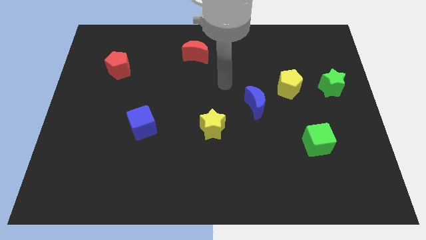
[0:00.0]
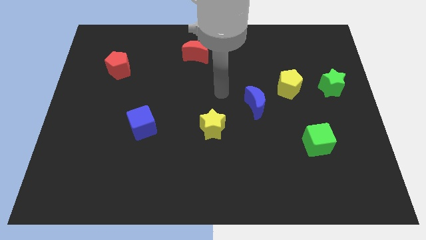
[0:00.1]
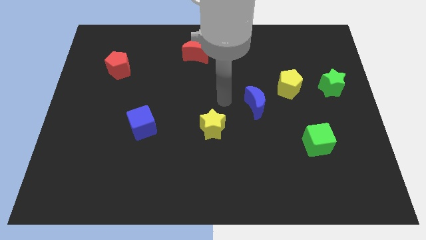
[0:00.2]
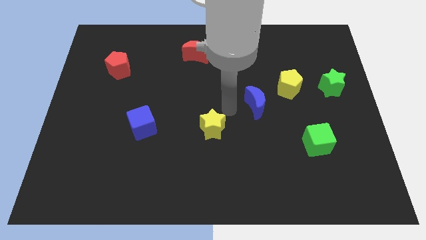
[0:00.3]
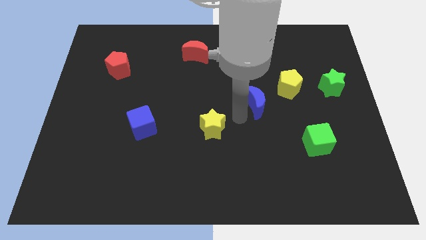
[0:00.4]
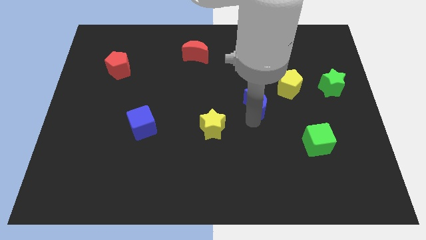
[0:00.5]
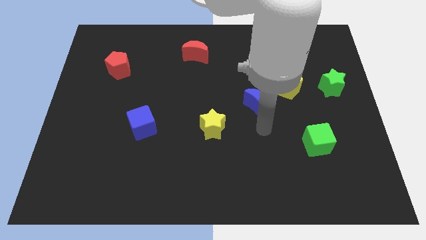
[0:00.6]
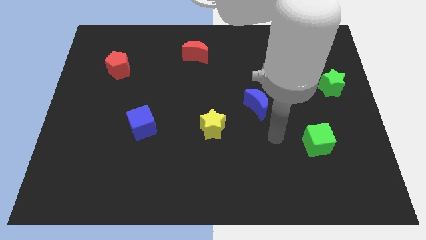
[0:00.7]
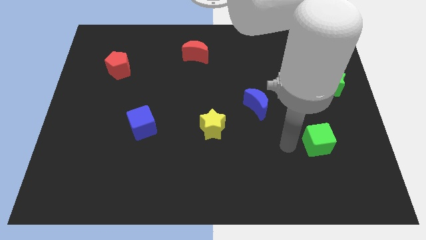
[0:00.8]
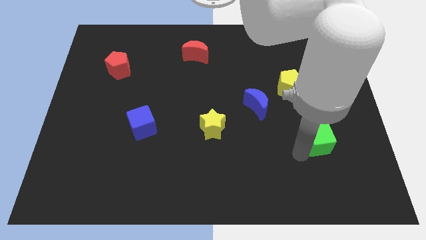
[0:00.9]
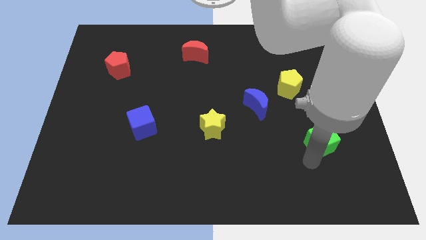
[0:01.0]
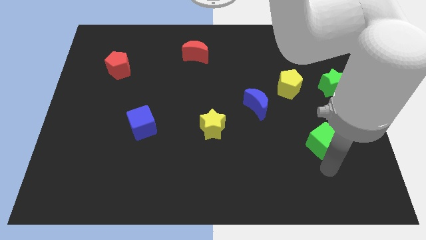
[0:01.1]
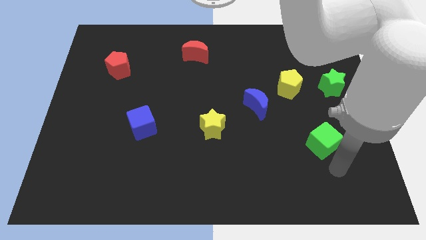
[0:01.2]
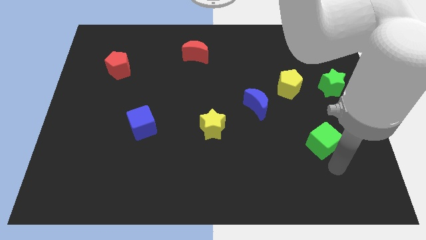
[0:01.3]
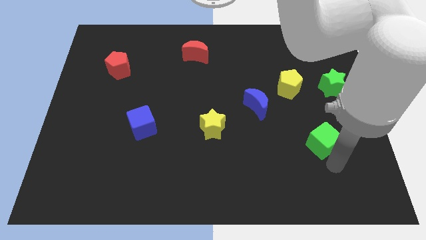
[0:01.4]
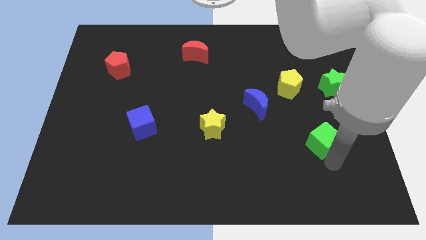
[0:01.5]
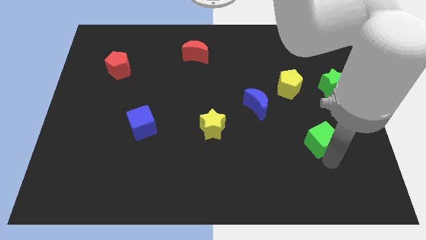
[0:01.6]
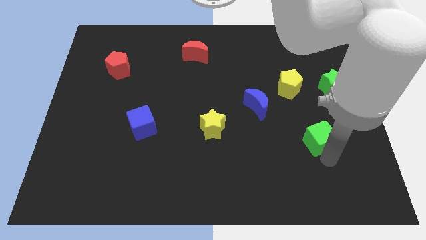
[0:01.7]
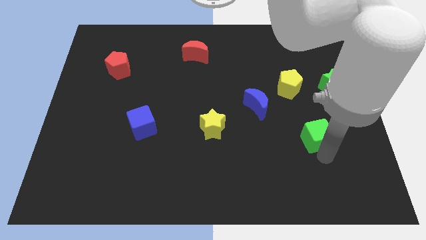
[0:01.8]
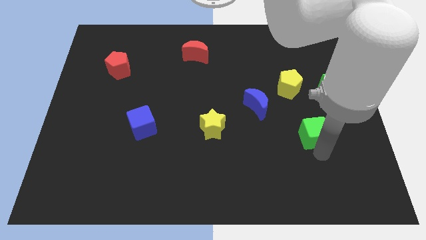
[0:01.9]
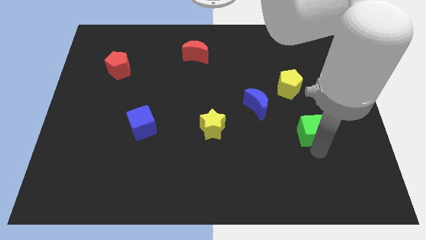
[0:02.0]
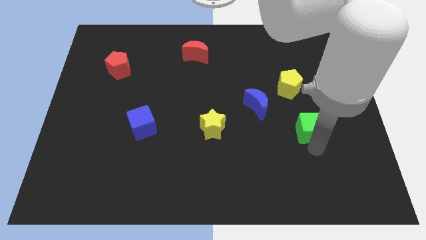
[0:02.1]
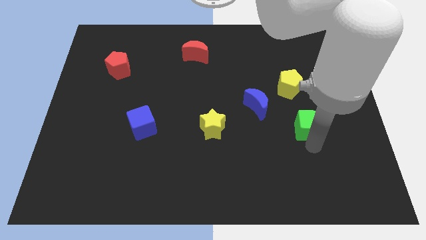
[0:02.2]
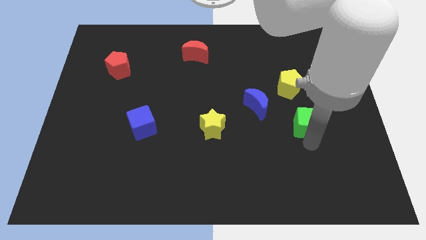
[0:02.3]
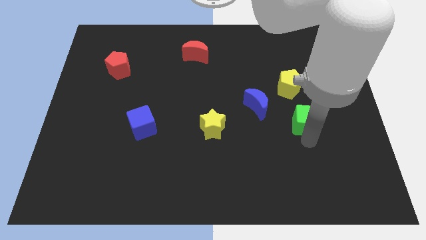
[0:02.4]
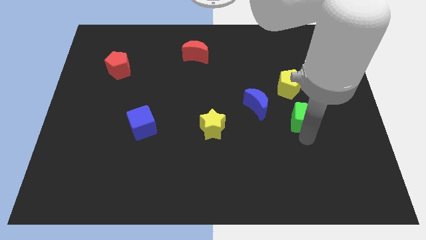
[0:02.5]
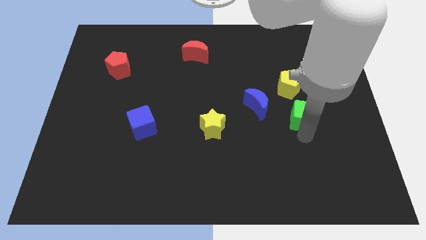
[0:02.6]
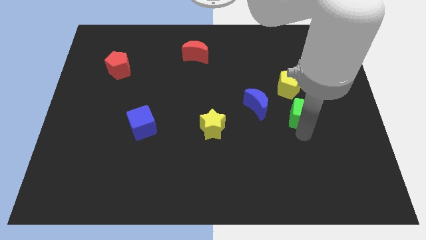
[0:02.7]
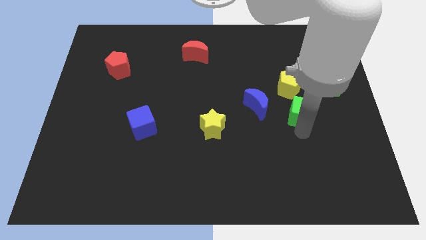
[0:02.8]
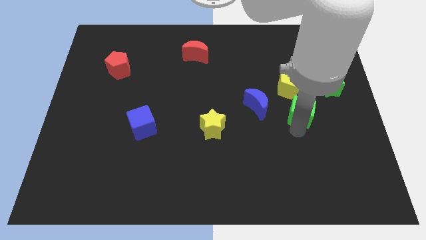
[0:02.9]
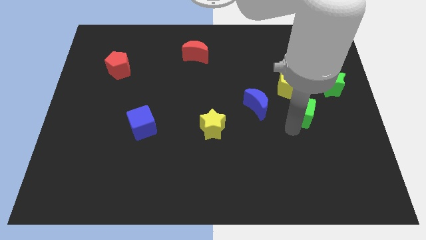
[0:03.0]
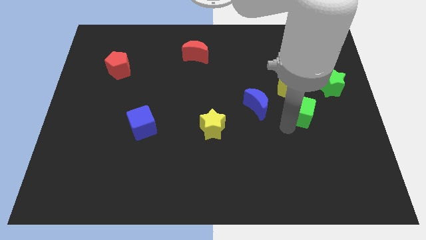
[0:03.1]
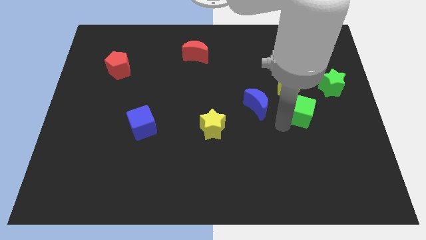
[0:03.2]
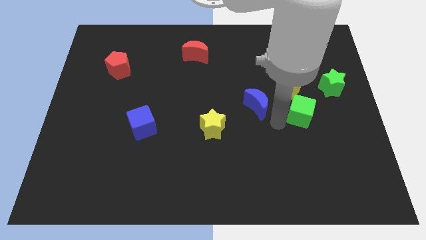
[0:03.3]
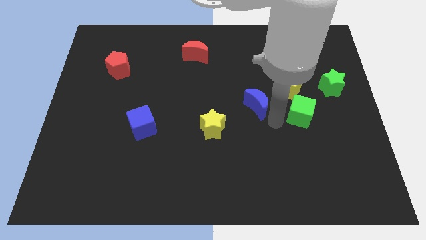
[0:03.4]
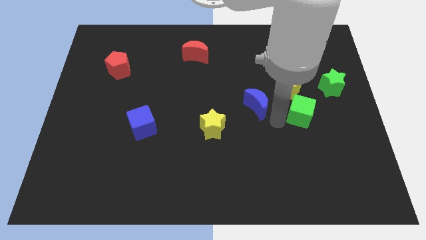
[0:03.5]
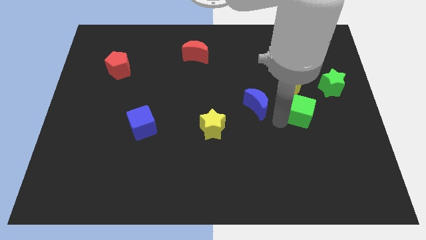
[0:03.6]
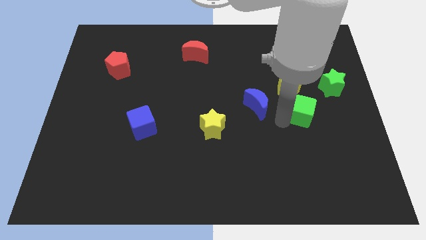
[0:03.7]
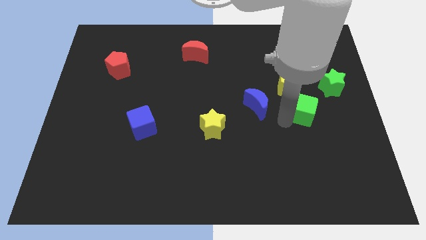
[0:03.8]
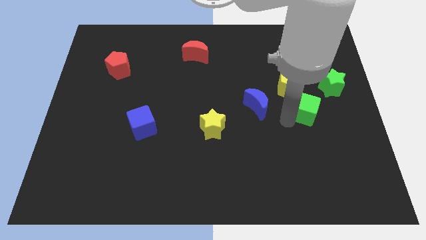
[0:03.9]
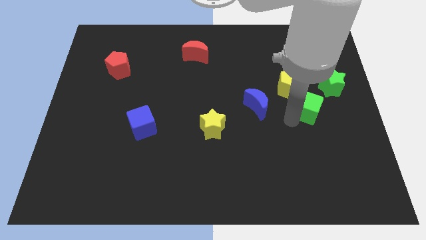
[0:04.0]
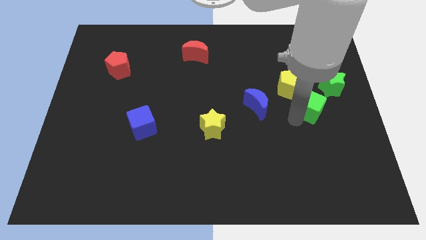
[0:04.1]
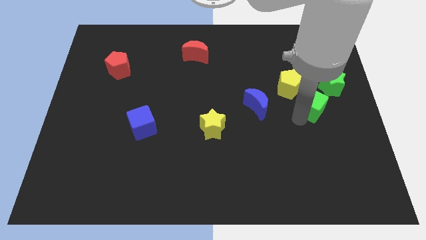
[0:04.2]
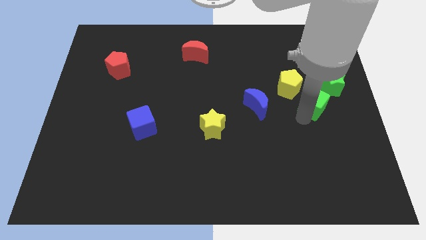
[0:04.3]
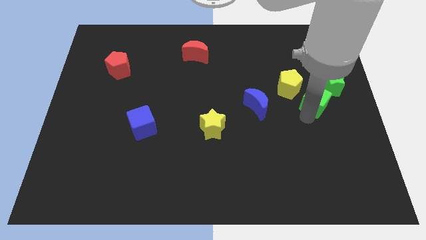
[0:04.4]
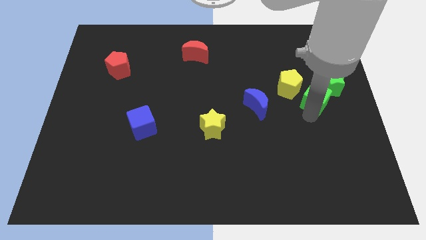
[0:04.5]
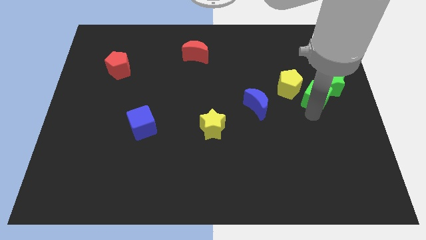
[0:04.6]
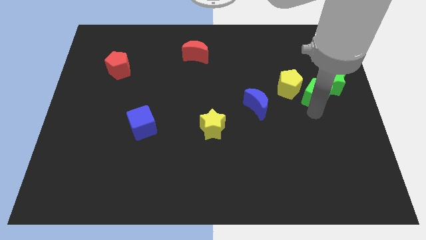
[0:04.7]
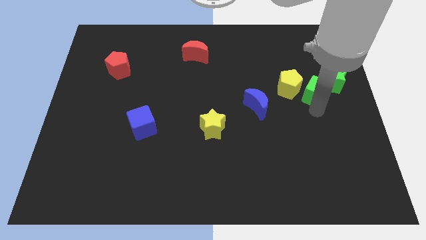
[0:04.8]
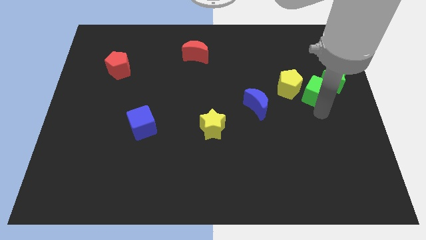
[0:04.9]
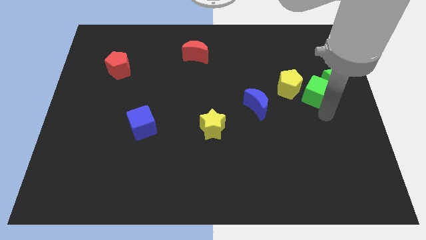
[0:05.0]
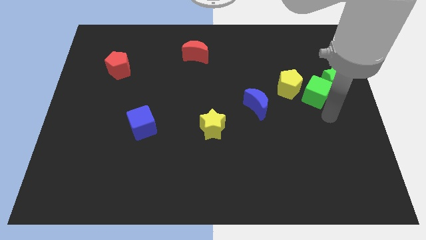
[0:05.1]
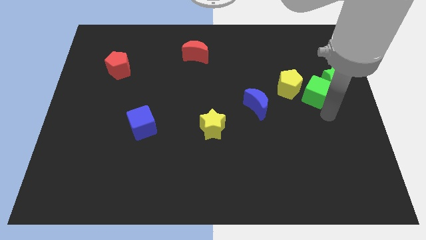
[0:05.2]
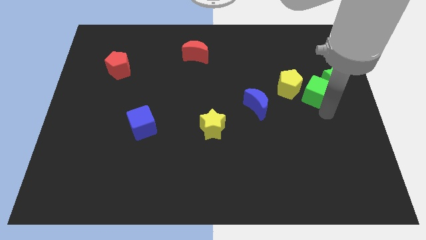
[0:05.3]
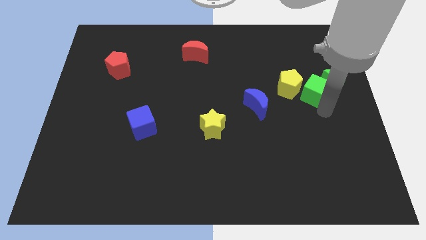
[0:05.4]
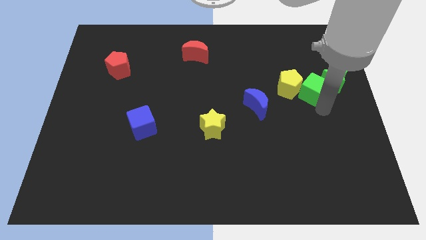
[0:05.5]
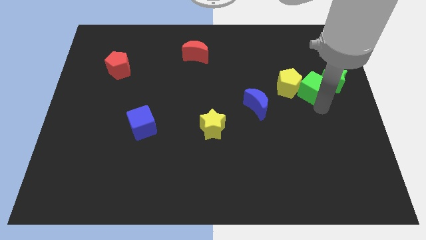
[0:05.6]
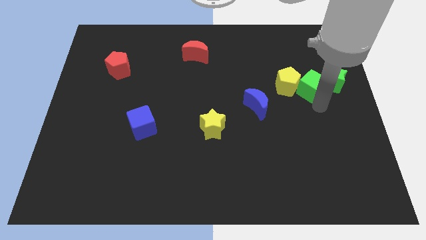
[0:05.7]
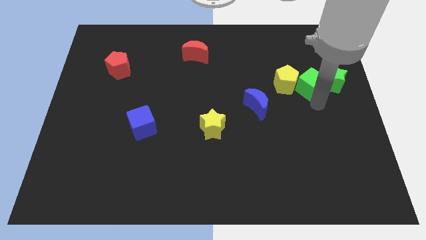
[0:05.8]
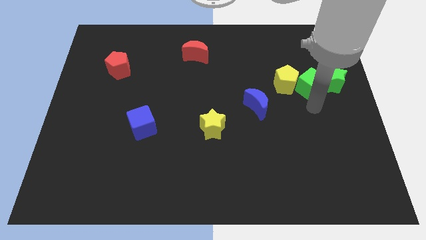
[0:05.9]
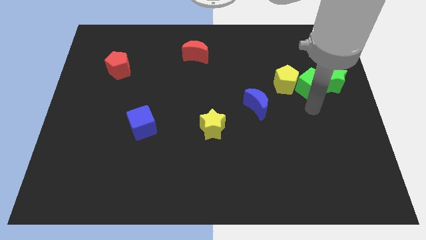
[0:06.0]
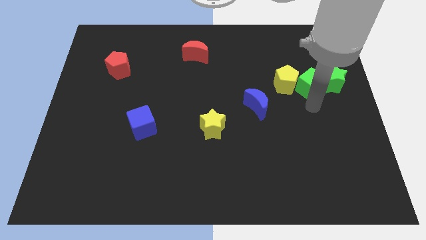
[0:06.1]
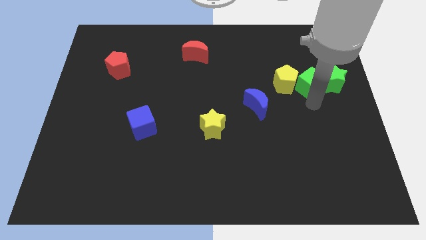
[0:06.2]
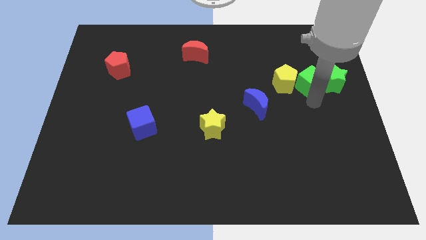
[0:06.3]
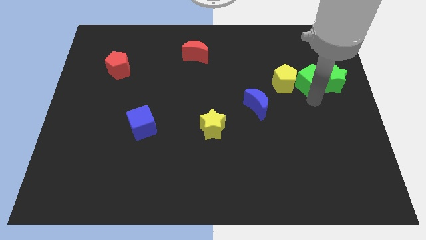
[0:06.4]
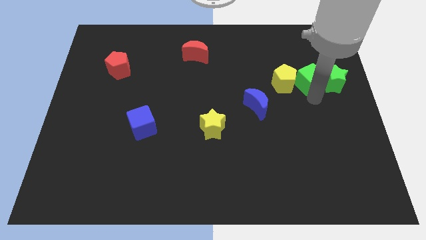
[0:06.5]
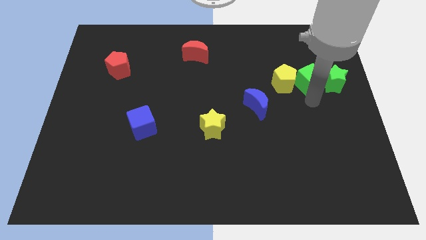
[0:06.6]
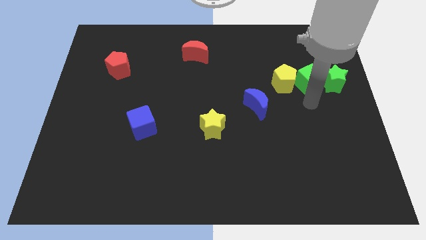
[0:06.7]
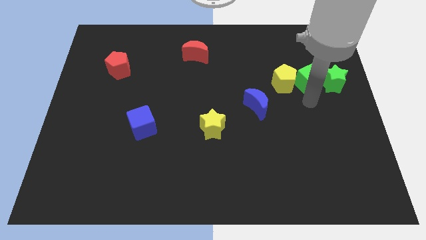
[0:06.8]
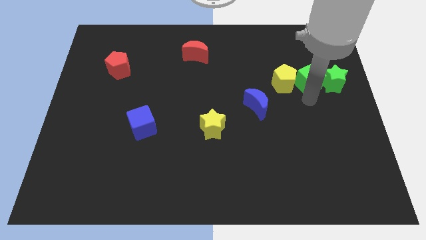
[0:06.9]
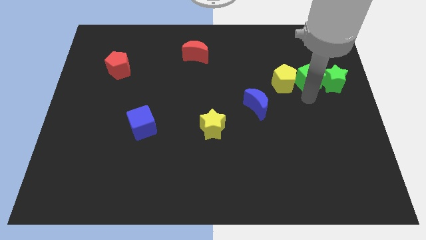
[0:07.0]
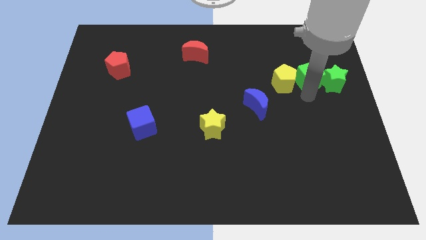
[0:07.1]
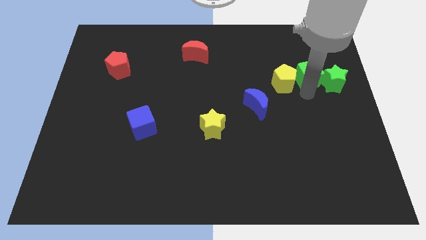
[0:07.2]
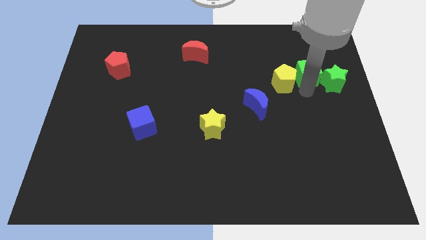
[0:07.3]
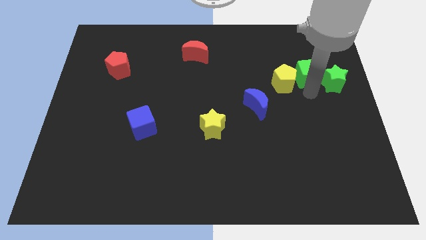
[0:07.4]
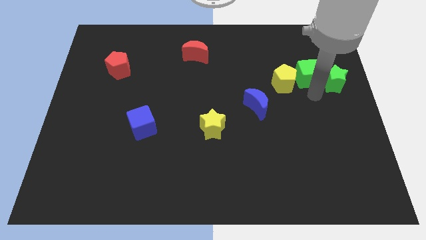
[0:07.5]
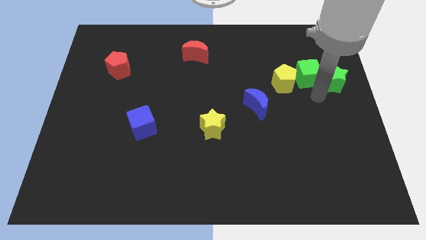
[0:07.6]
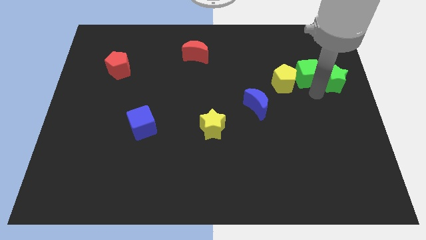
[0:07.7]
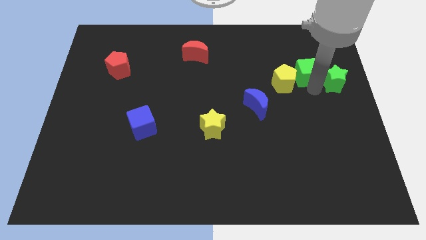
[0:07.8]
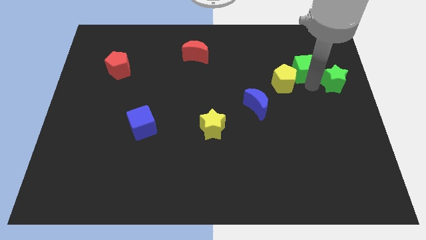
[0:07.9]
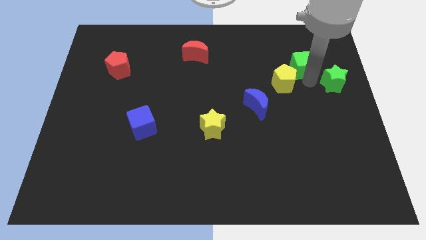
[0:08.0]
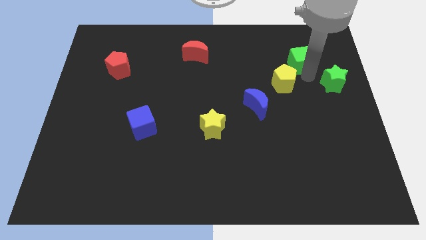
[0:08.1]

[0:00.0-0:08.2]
slide the green cube to the top of the yellow pentagon
